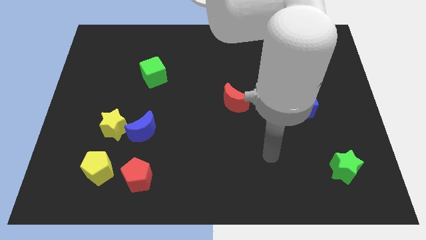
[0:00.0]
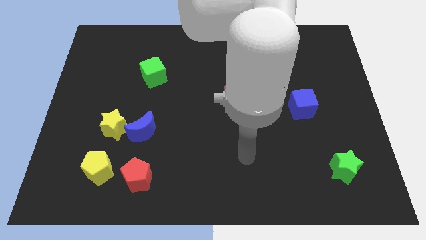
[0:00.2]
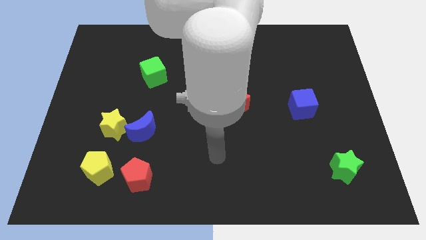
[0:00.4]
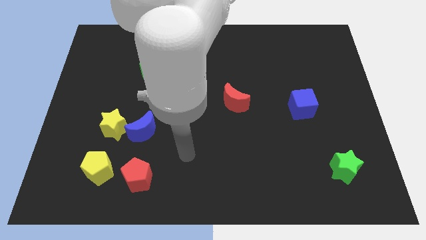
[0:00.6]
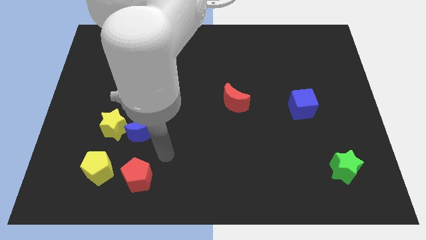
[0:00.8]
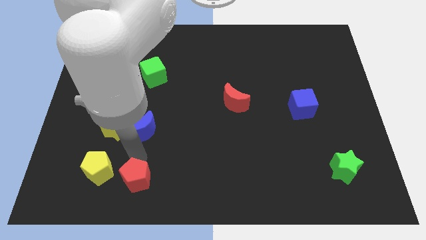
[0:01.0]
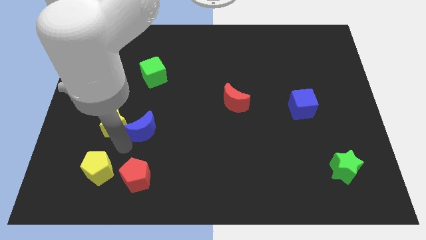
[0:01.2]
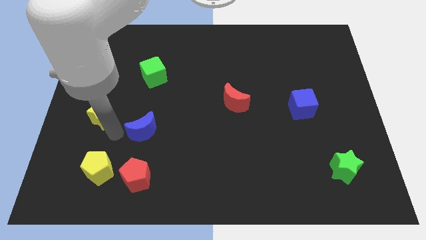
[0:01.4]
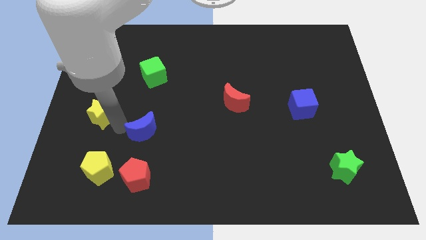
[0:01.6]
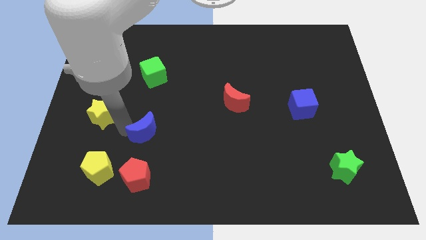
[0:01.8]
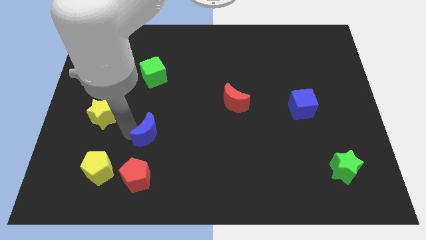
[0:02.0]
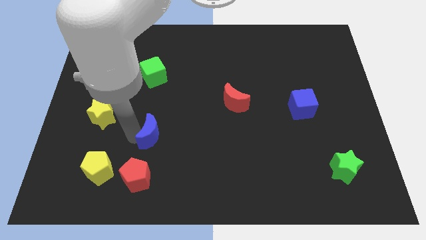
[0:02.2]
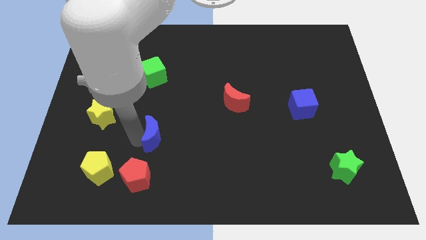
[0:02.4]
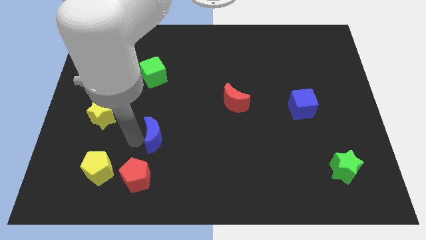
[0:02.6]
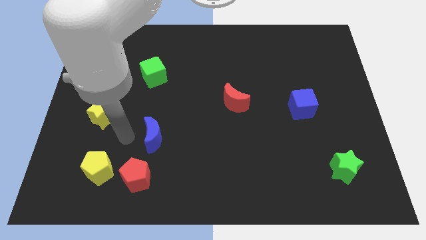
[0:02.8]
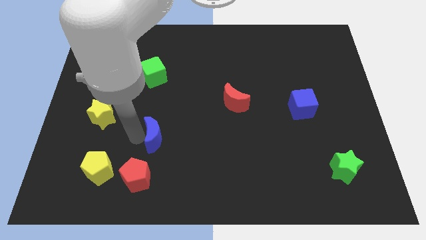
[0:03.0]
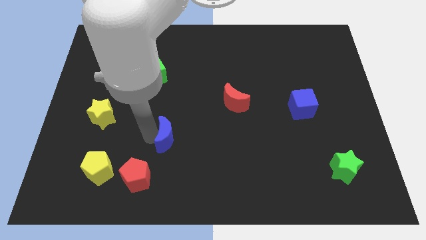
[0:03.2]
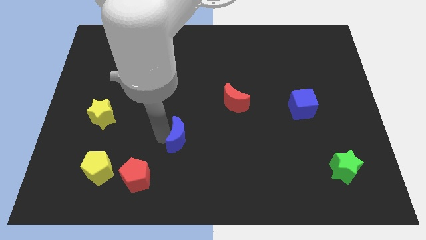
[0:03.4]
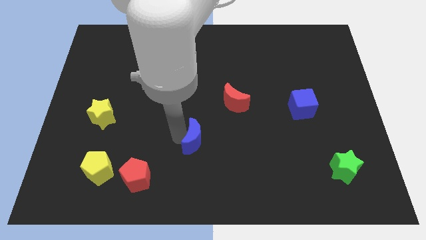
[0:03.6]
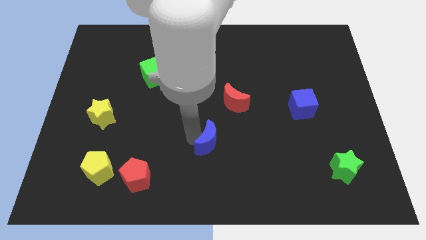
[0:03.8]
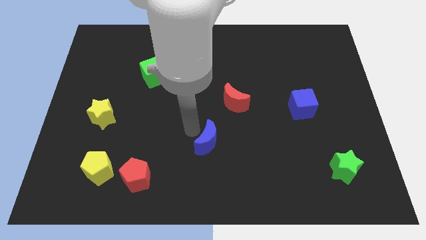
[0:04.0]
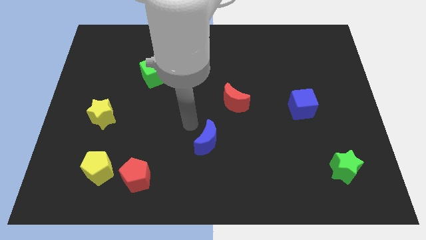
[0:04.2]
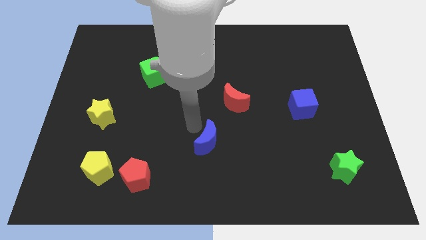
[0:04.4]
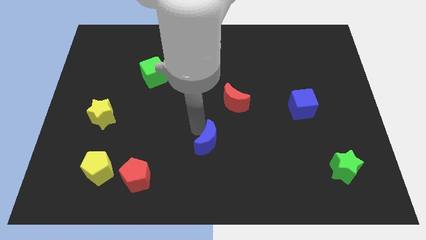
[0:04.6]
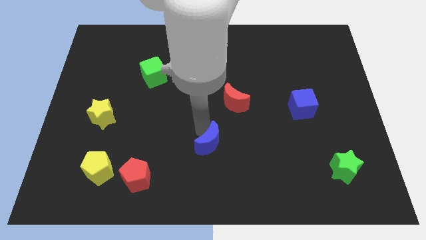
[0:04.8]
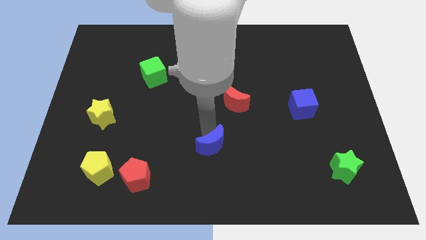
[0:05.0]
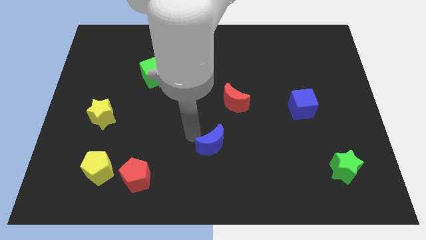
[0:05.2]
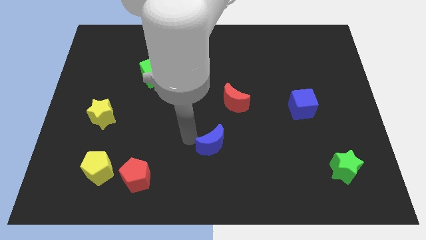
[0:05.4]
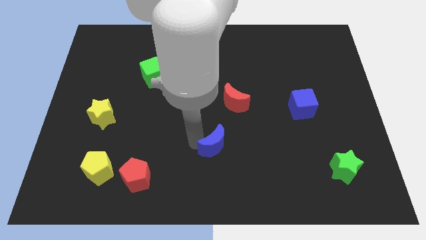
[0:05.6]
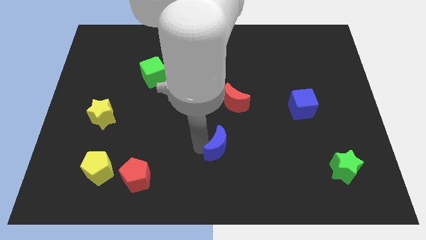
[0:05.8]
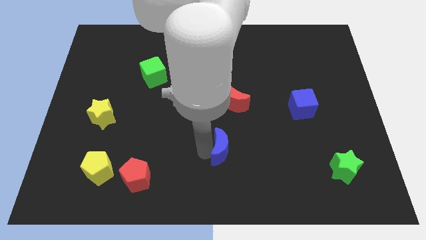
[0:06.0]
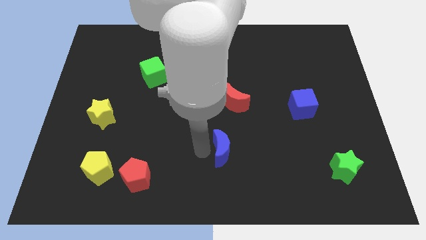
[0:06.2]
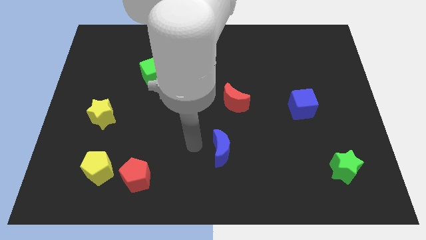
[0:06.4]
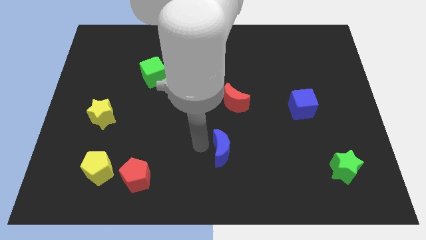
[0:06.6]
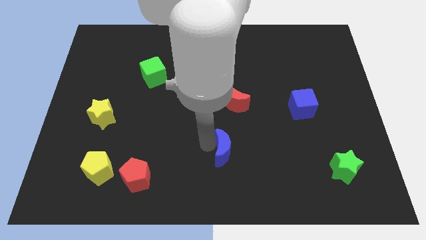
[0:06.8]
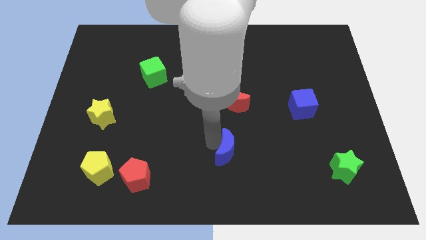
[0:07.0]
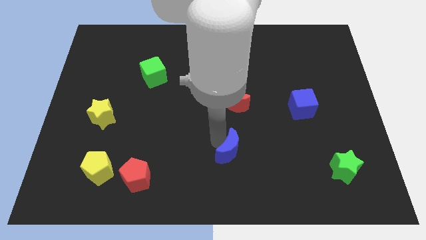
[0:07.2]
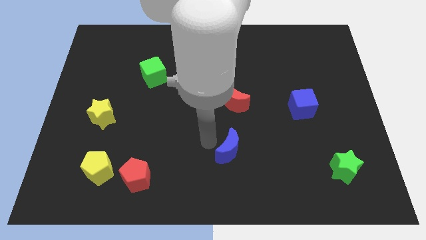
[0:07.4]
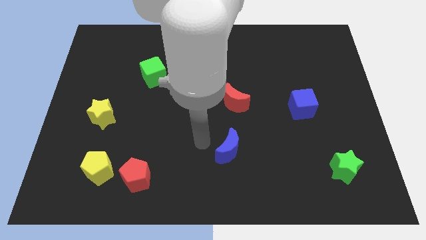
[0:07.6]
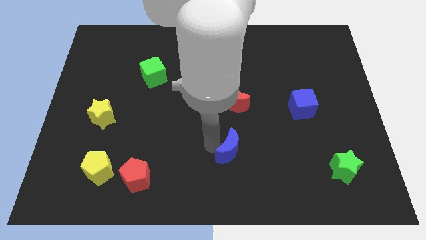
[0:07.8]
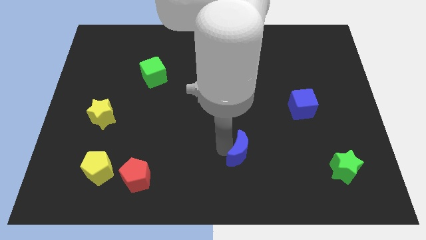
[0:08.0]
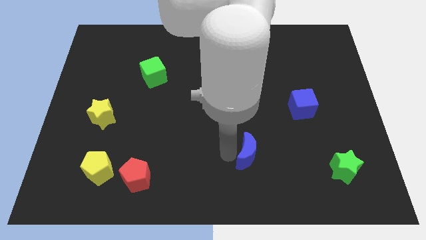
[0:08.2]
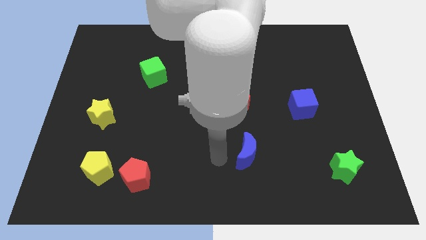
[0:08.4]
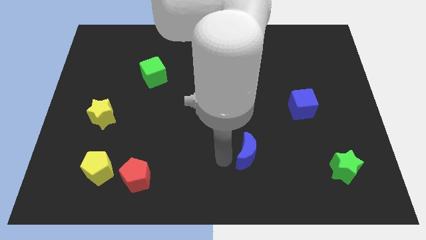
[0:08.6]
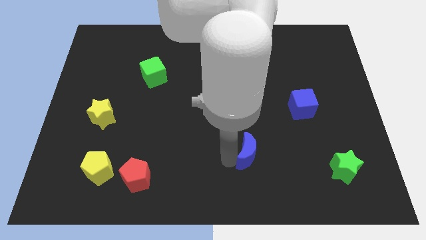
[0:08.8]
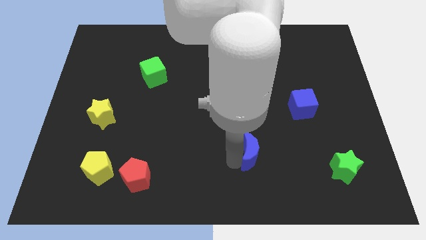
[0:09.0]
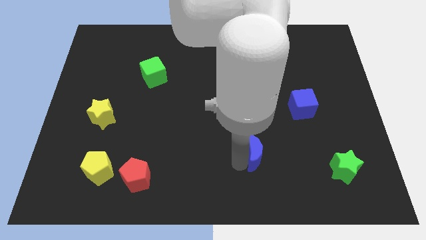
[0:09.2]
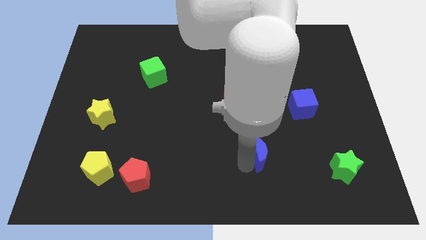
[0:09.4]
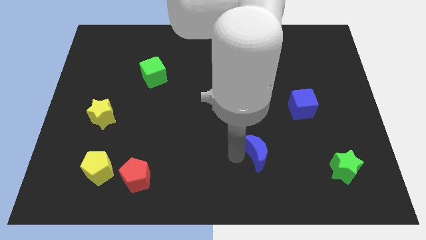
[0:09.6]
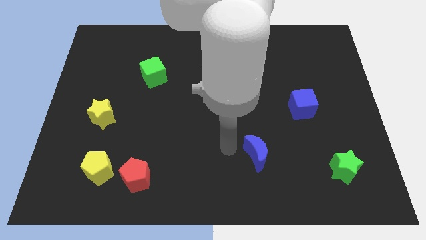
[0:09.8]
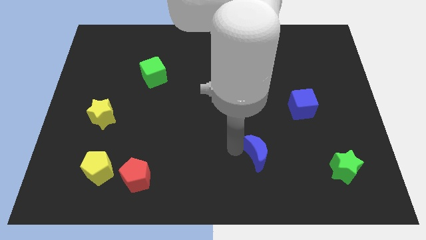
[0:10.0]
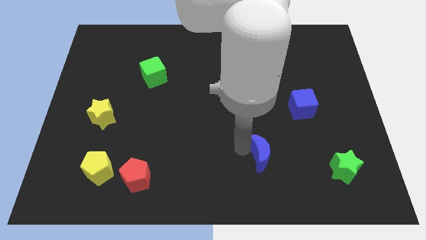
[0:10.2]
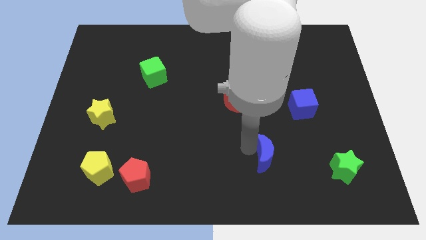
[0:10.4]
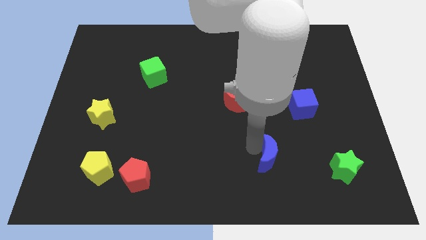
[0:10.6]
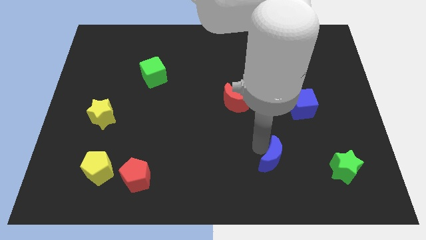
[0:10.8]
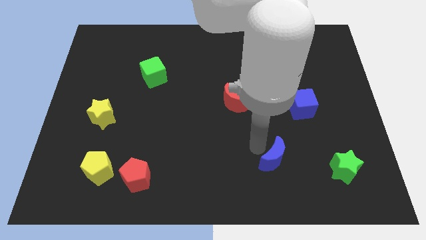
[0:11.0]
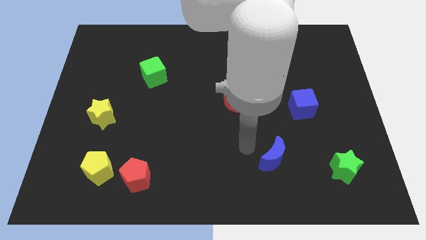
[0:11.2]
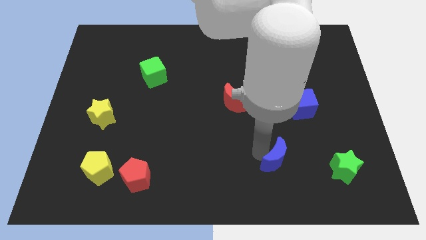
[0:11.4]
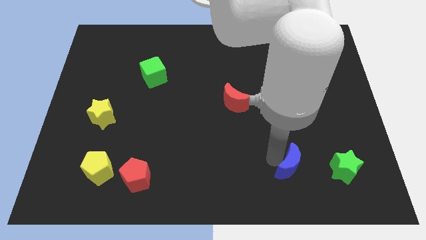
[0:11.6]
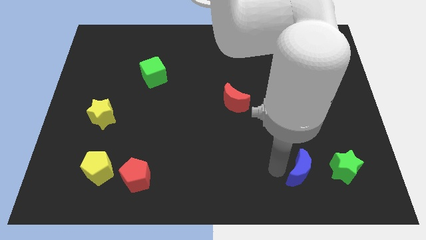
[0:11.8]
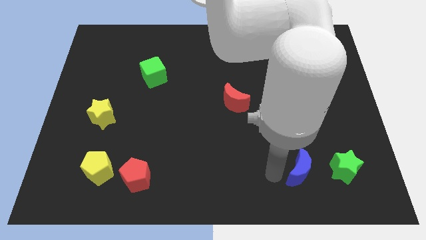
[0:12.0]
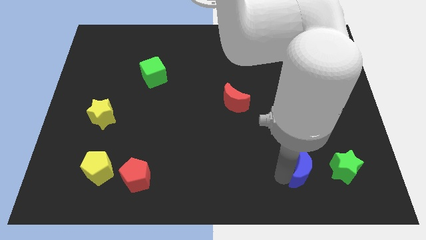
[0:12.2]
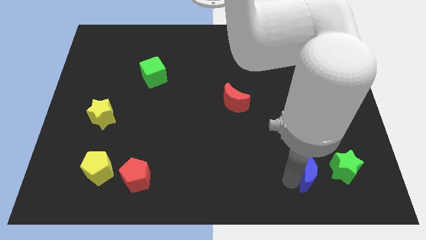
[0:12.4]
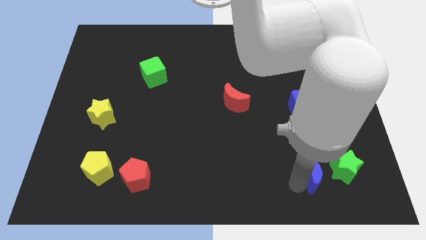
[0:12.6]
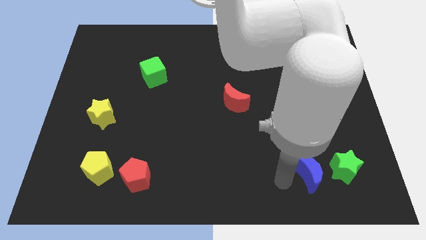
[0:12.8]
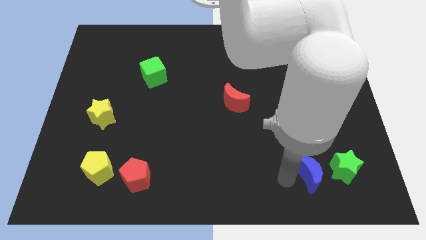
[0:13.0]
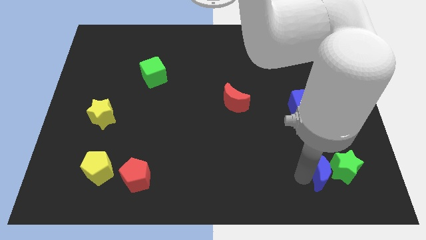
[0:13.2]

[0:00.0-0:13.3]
push the blue moon towards the green star

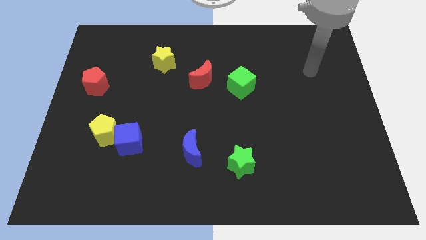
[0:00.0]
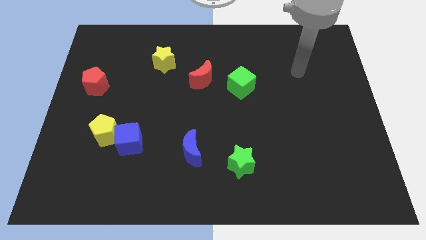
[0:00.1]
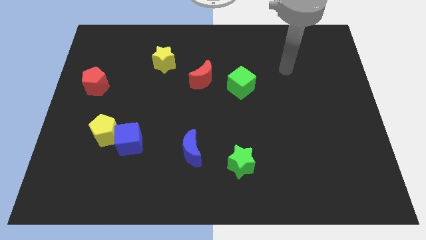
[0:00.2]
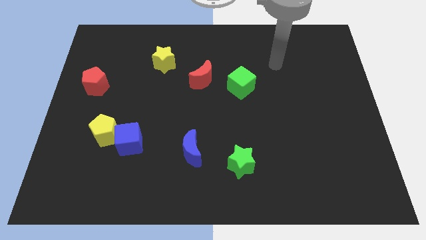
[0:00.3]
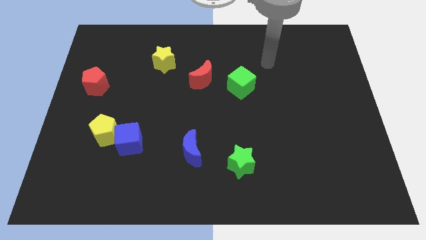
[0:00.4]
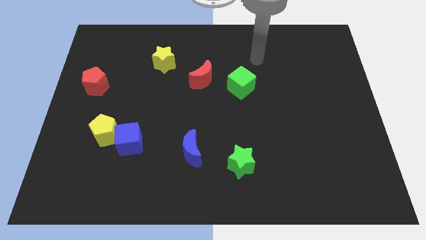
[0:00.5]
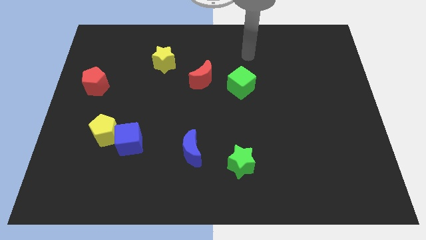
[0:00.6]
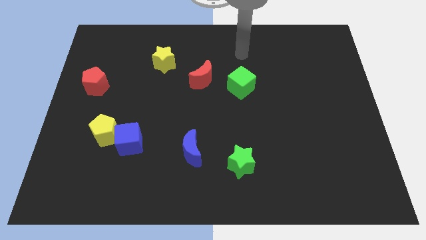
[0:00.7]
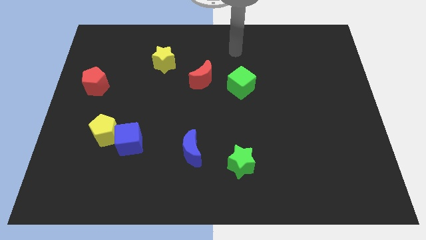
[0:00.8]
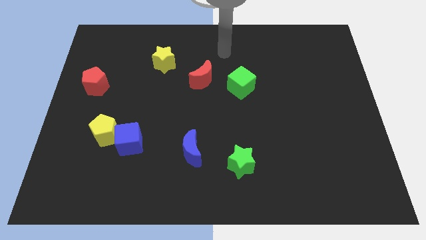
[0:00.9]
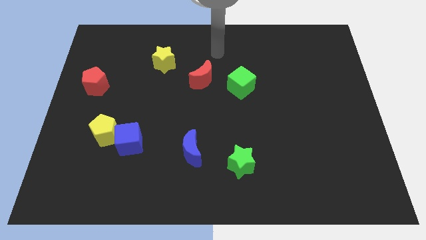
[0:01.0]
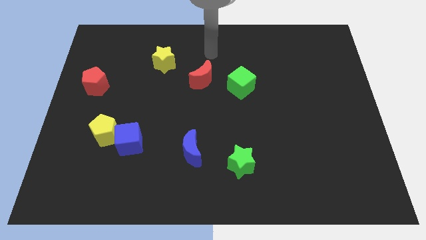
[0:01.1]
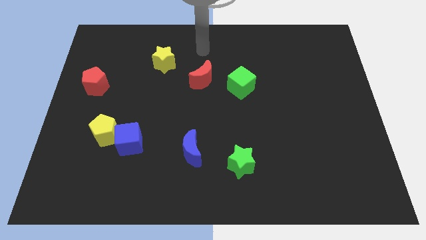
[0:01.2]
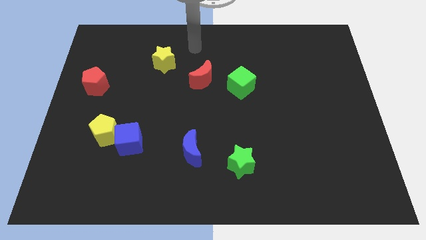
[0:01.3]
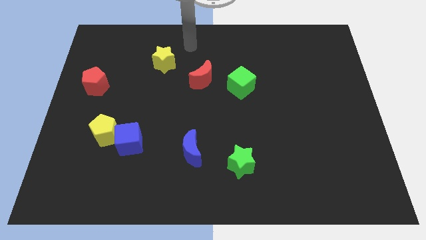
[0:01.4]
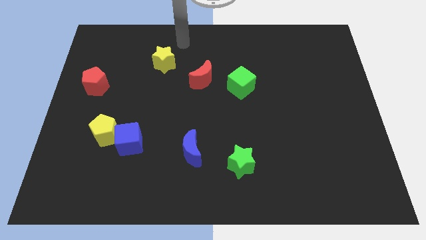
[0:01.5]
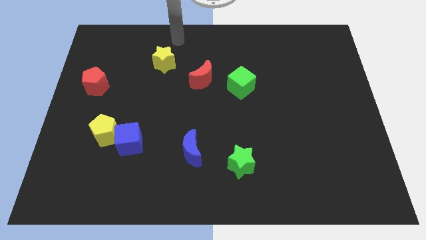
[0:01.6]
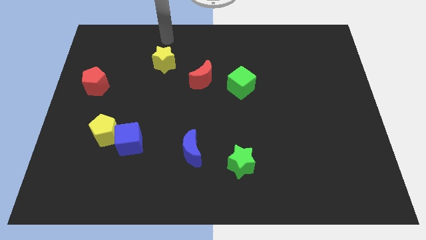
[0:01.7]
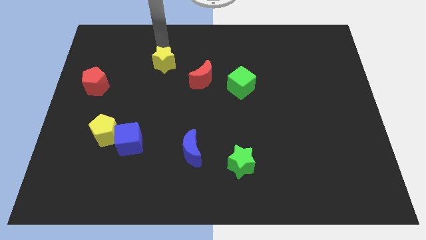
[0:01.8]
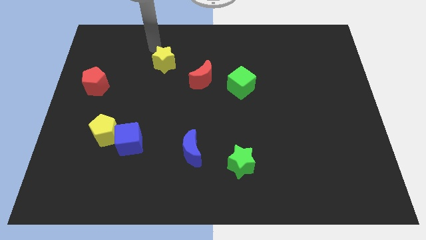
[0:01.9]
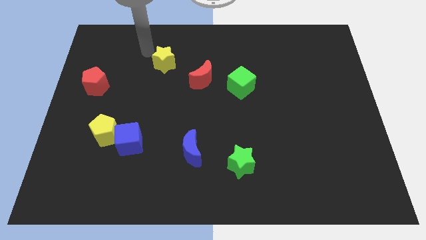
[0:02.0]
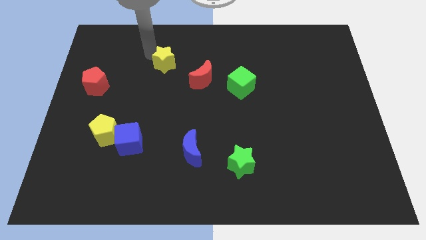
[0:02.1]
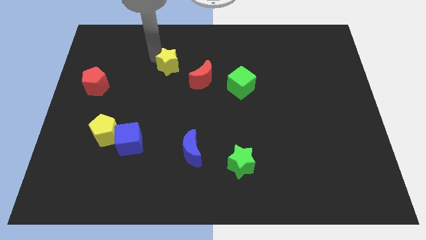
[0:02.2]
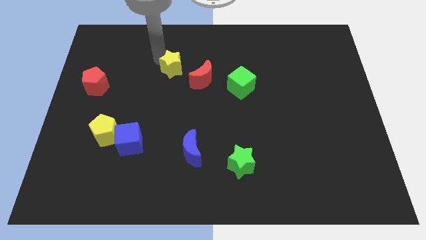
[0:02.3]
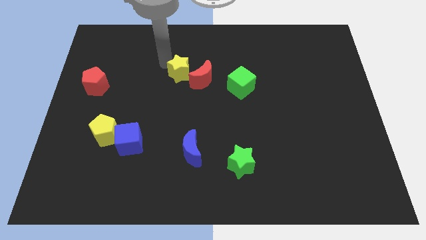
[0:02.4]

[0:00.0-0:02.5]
push the yellow star close to the red moon
